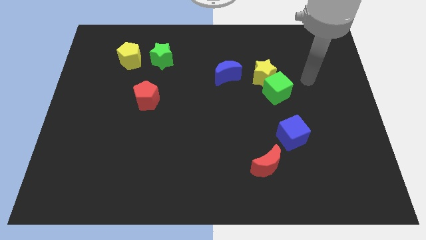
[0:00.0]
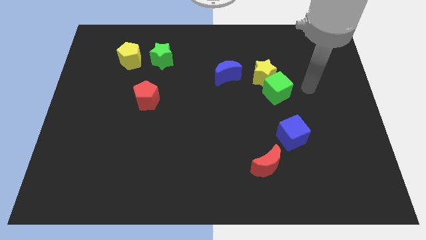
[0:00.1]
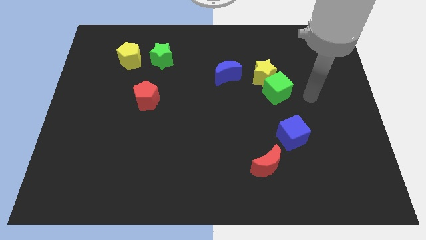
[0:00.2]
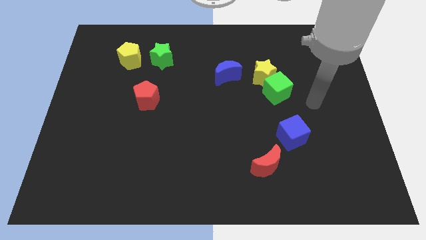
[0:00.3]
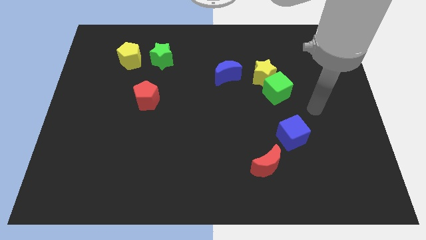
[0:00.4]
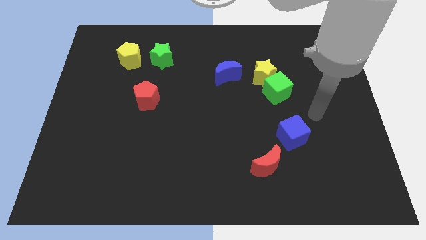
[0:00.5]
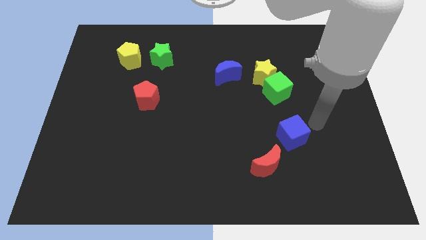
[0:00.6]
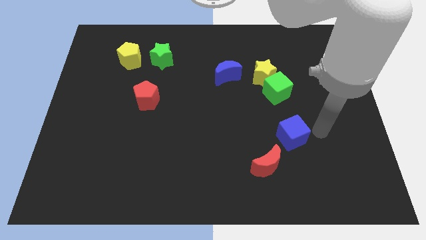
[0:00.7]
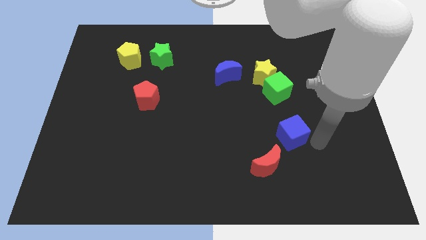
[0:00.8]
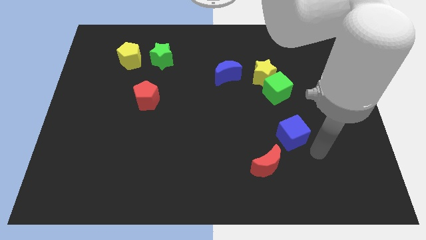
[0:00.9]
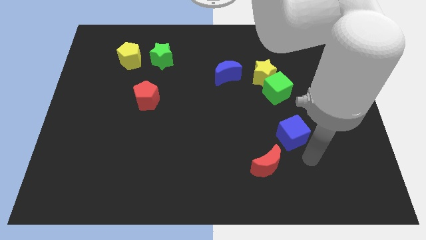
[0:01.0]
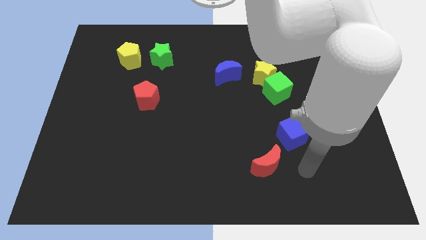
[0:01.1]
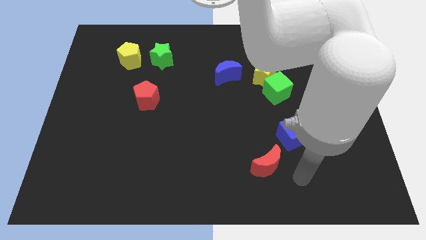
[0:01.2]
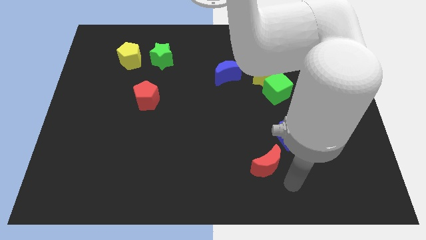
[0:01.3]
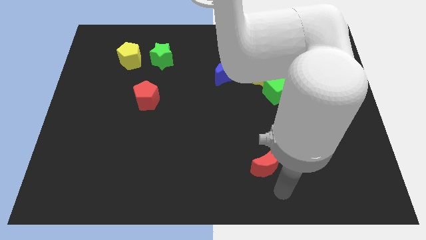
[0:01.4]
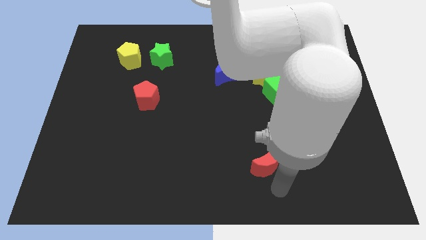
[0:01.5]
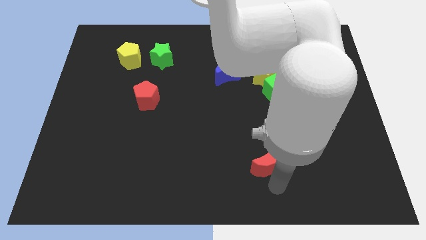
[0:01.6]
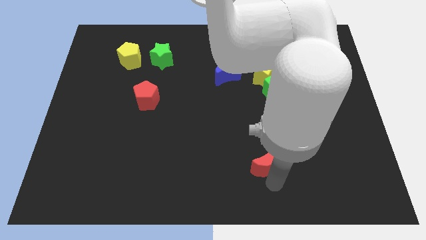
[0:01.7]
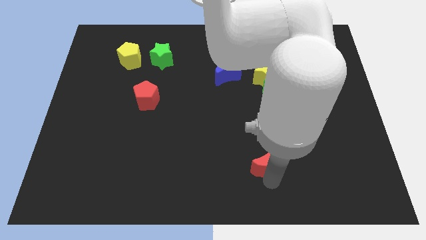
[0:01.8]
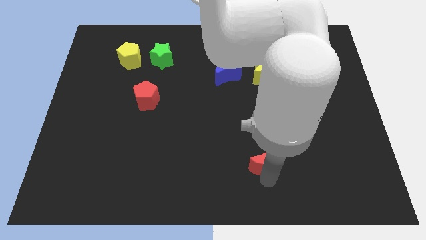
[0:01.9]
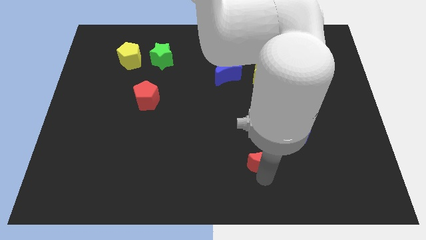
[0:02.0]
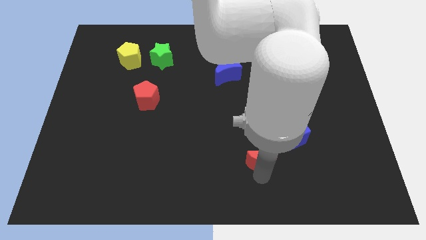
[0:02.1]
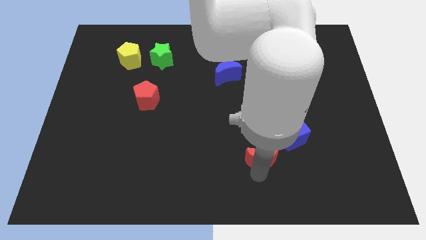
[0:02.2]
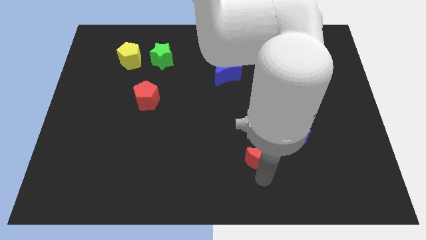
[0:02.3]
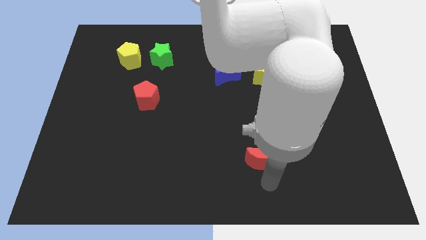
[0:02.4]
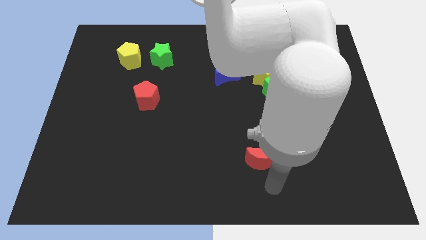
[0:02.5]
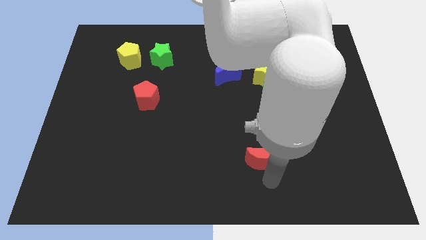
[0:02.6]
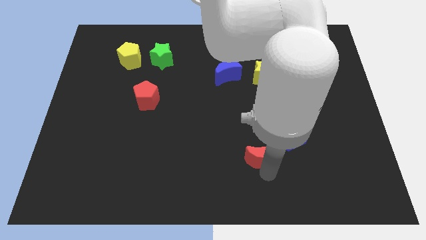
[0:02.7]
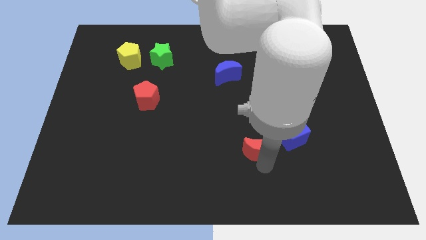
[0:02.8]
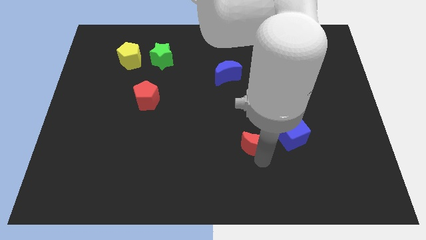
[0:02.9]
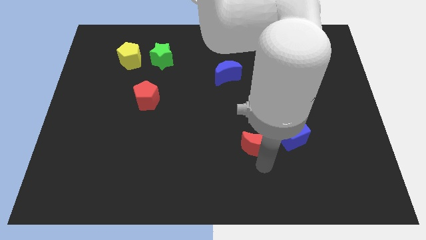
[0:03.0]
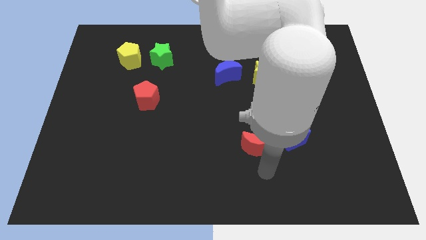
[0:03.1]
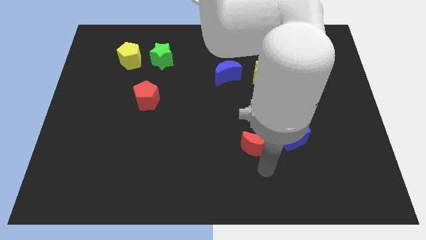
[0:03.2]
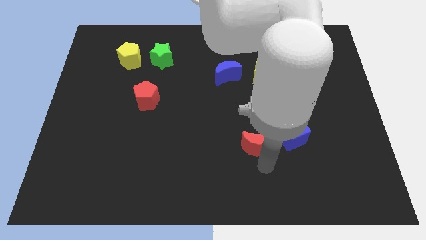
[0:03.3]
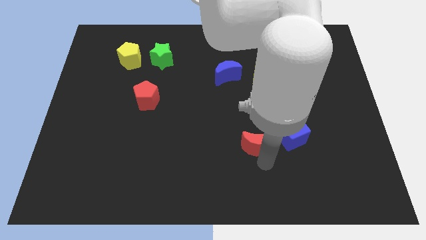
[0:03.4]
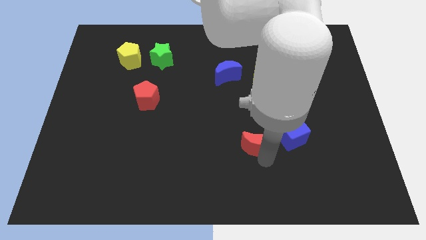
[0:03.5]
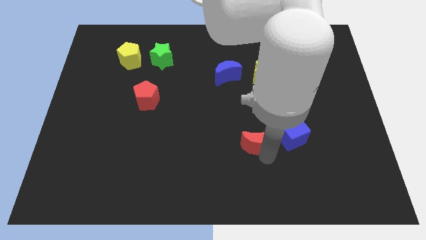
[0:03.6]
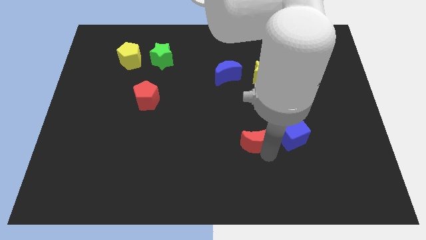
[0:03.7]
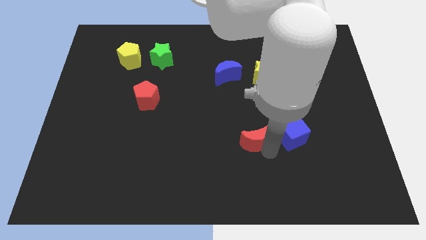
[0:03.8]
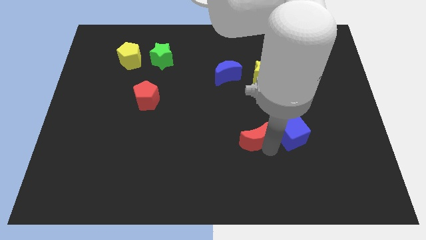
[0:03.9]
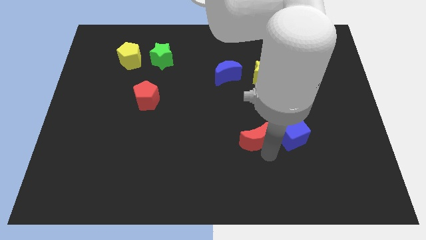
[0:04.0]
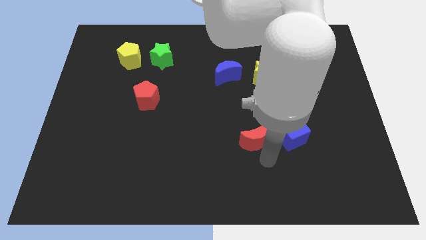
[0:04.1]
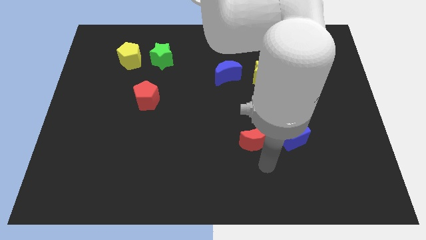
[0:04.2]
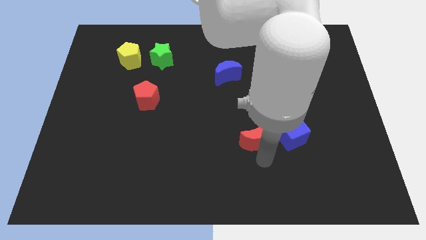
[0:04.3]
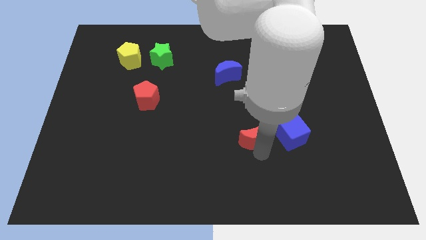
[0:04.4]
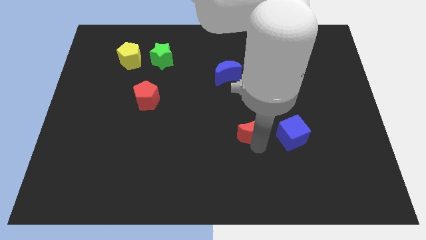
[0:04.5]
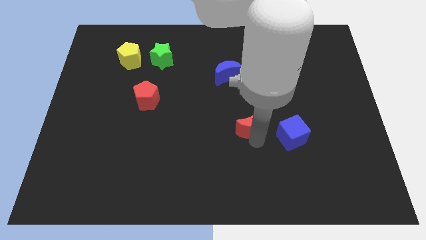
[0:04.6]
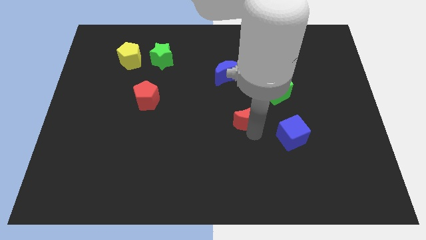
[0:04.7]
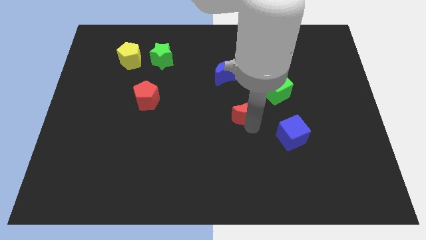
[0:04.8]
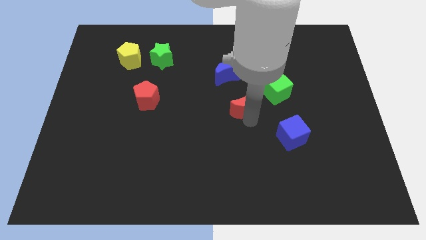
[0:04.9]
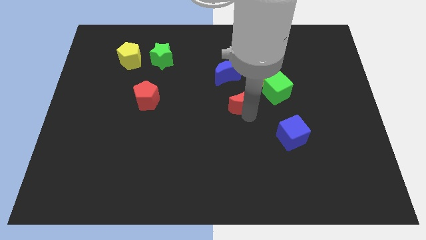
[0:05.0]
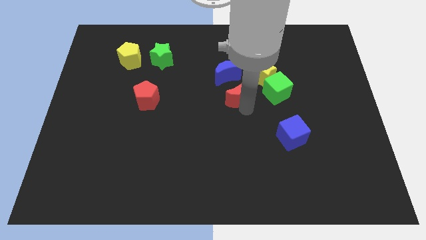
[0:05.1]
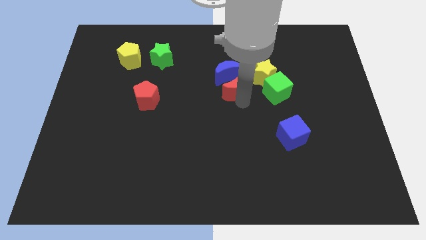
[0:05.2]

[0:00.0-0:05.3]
slide the red moon next to the blue moon

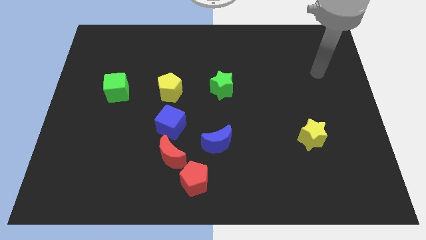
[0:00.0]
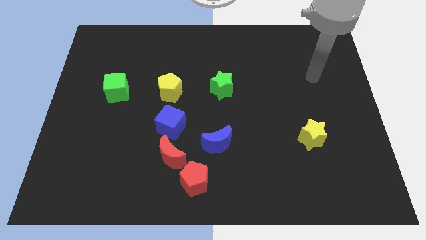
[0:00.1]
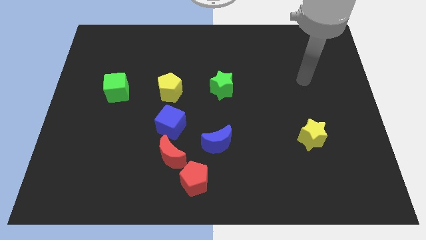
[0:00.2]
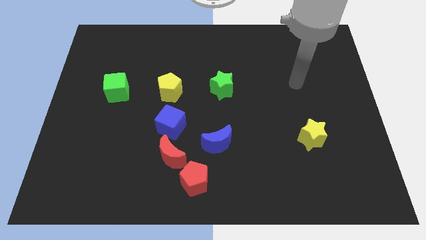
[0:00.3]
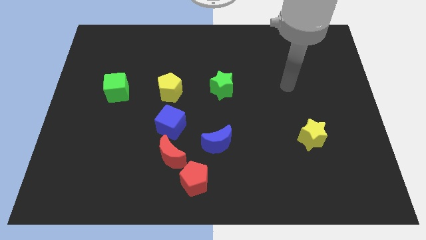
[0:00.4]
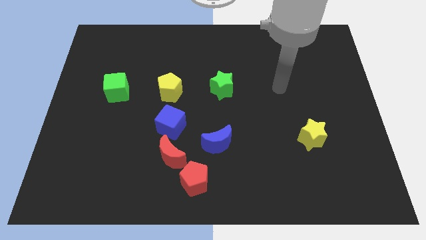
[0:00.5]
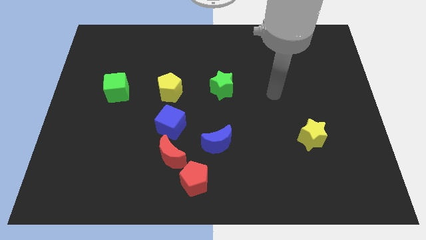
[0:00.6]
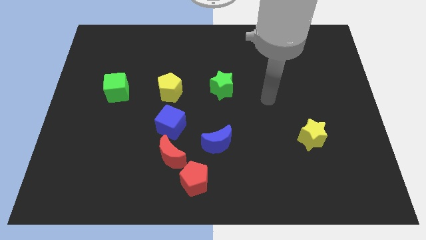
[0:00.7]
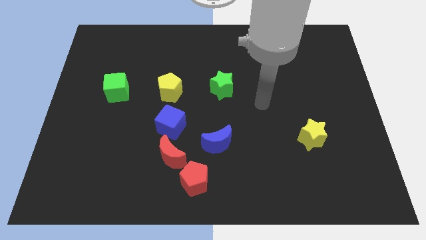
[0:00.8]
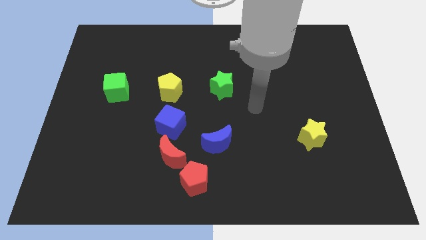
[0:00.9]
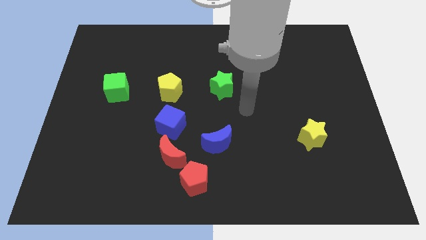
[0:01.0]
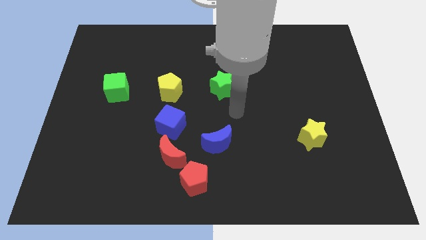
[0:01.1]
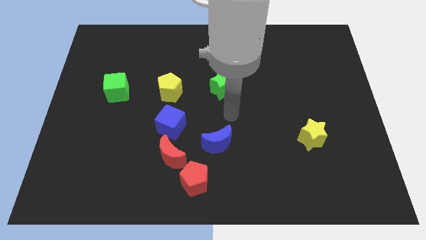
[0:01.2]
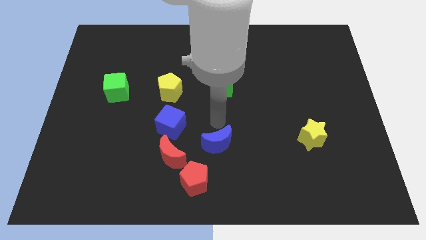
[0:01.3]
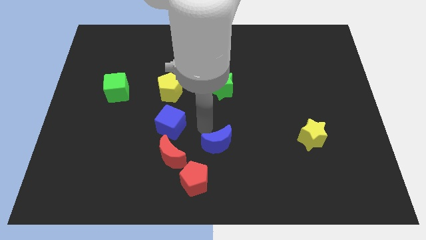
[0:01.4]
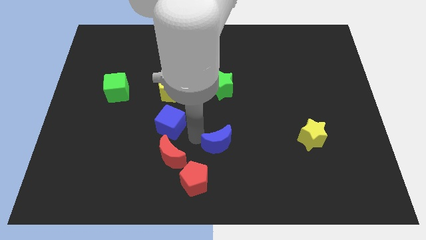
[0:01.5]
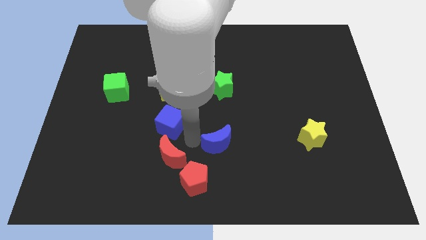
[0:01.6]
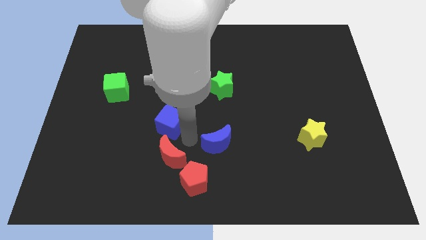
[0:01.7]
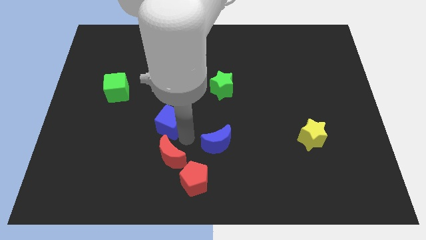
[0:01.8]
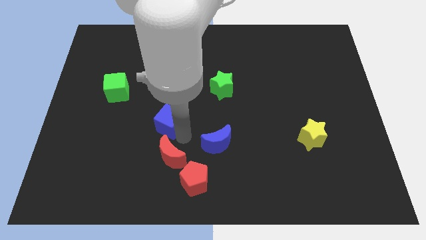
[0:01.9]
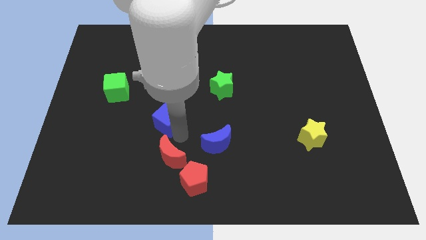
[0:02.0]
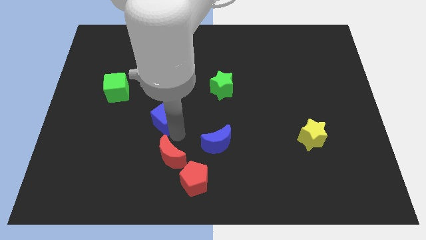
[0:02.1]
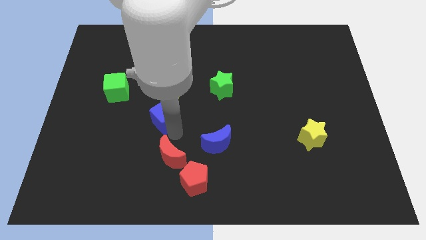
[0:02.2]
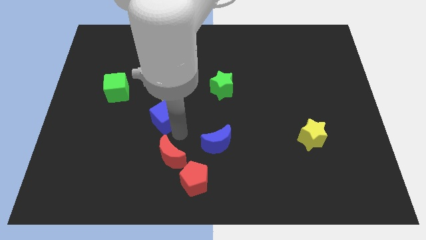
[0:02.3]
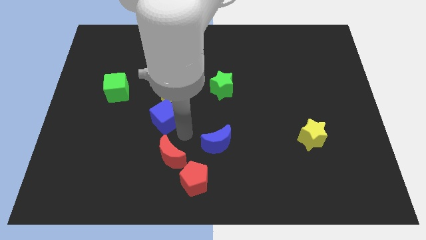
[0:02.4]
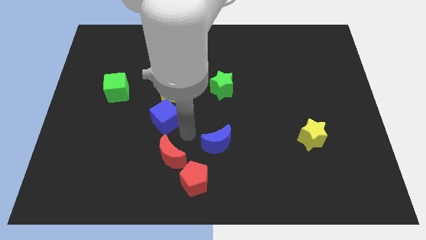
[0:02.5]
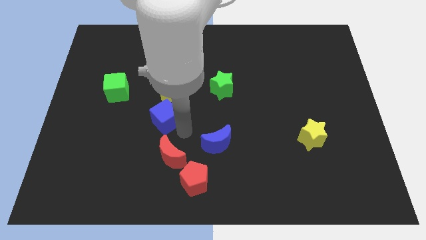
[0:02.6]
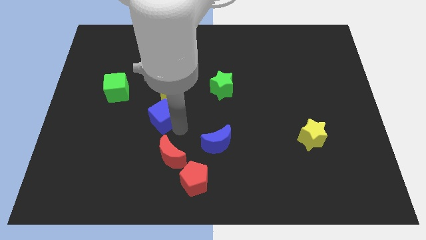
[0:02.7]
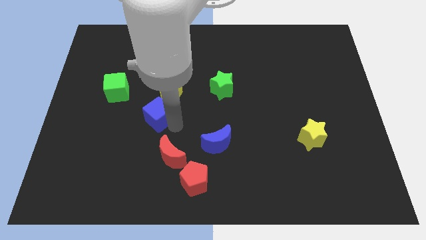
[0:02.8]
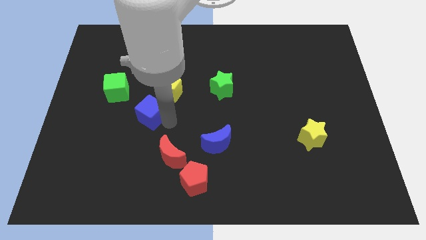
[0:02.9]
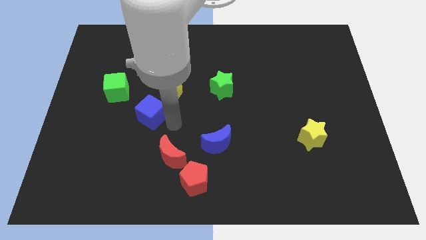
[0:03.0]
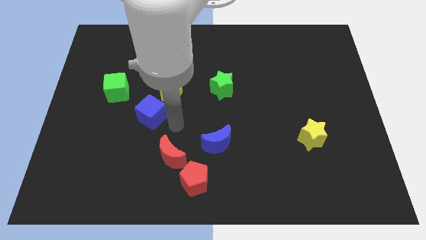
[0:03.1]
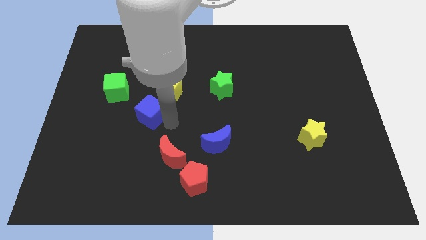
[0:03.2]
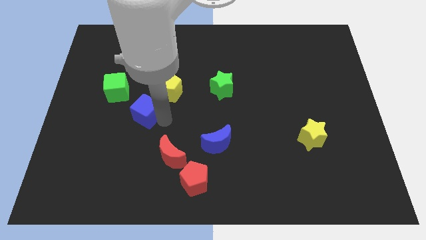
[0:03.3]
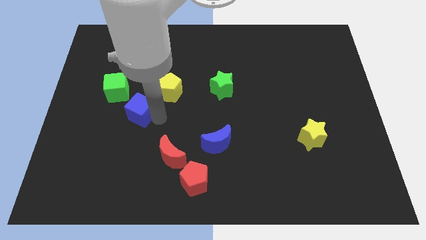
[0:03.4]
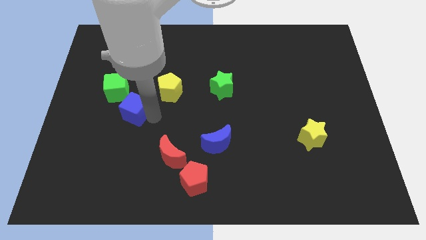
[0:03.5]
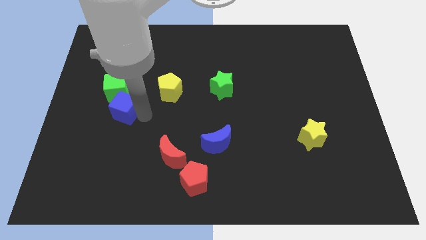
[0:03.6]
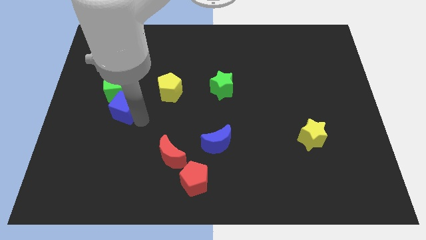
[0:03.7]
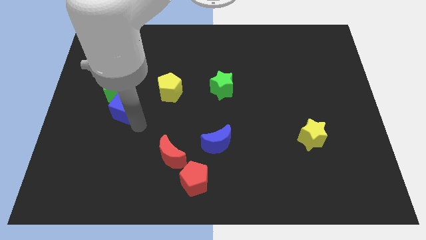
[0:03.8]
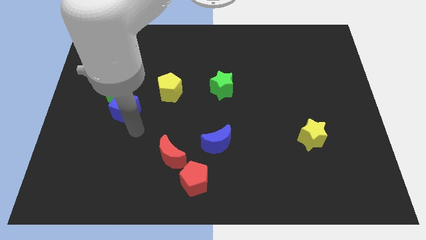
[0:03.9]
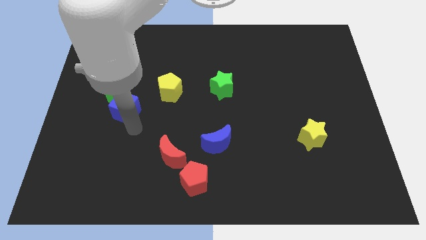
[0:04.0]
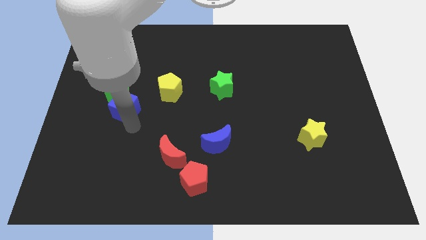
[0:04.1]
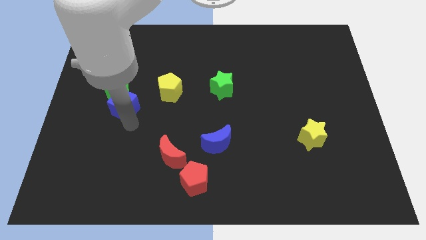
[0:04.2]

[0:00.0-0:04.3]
slide the blue cube to the green cube
